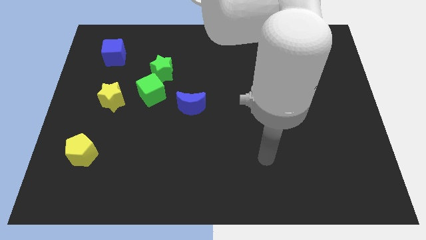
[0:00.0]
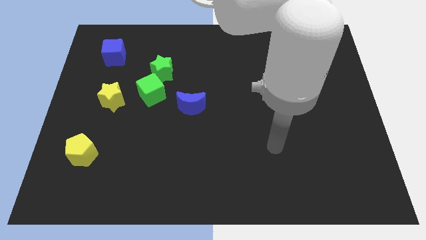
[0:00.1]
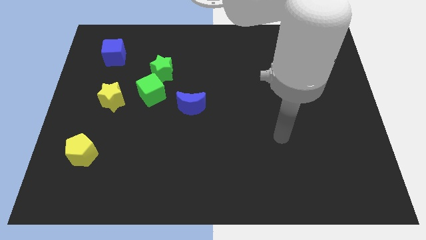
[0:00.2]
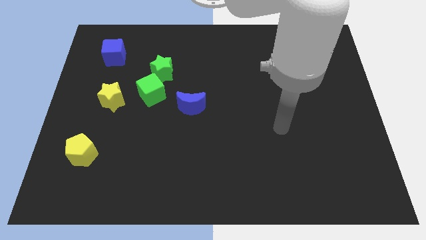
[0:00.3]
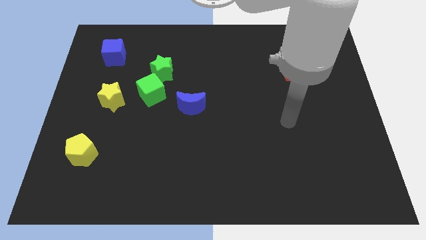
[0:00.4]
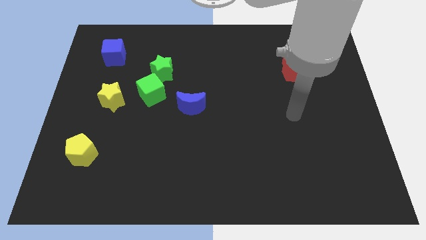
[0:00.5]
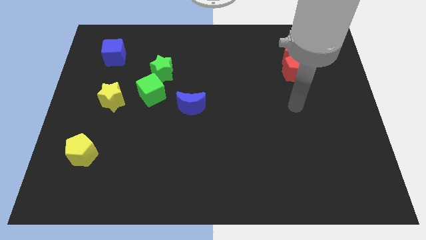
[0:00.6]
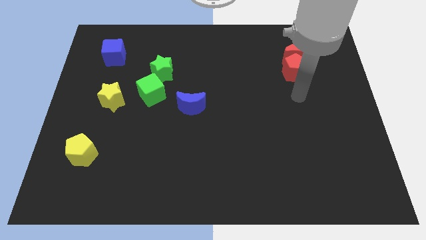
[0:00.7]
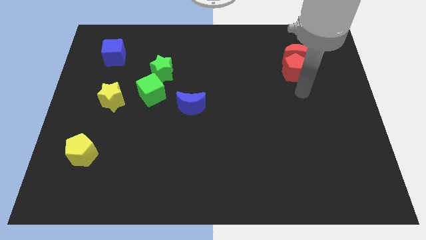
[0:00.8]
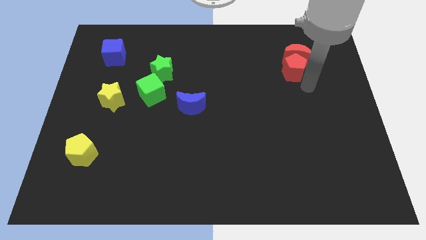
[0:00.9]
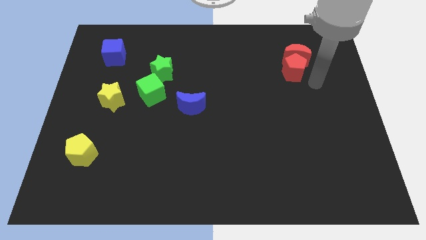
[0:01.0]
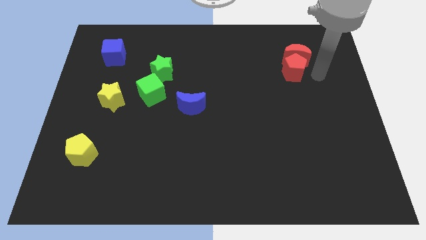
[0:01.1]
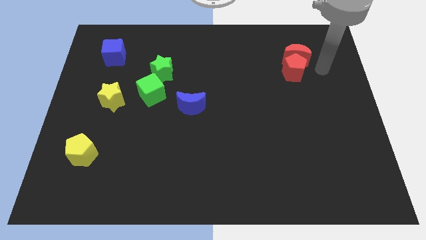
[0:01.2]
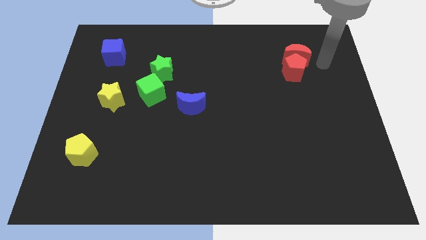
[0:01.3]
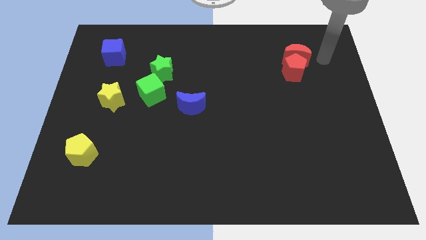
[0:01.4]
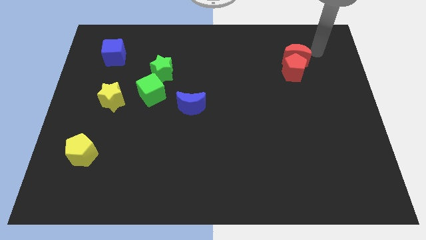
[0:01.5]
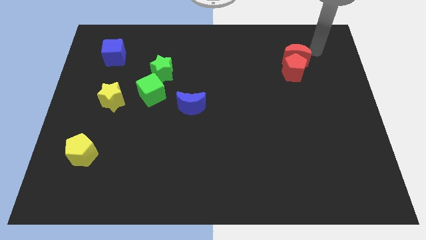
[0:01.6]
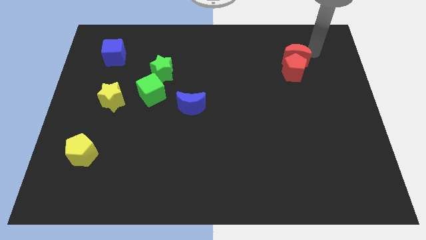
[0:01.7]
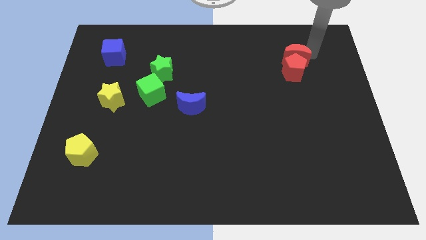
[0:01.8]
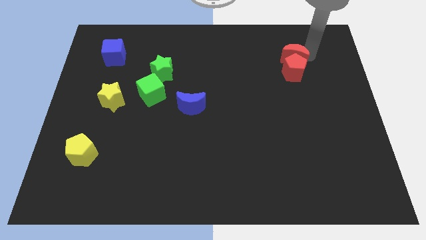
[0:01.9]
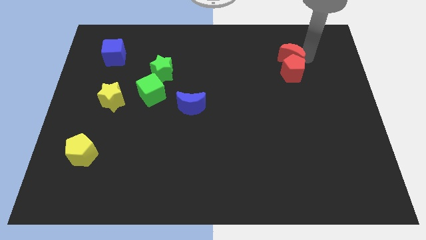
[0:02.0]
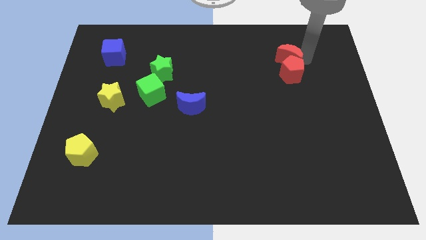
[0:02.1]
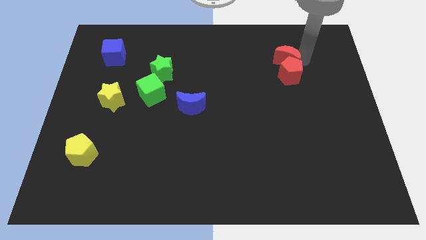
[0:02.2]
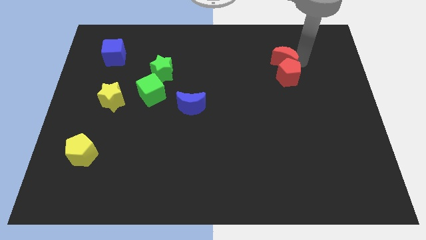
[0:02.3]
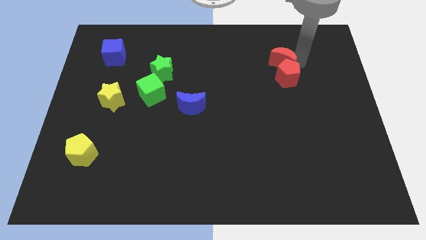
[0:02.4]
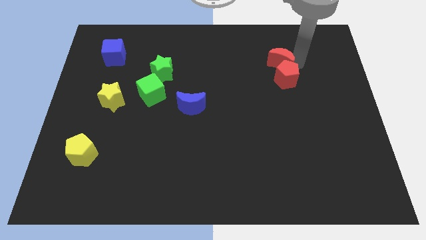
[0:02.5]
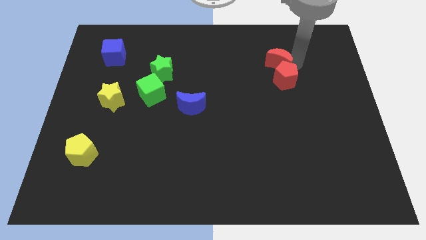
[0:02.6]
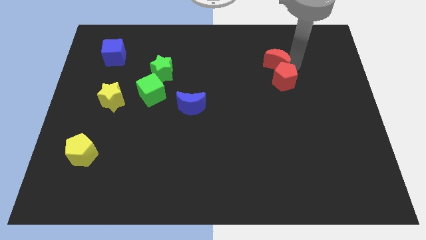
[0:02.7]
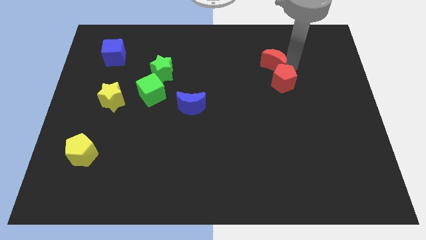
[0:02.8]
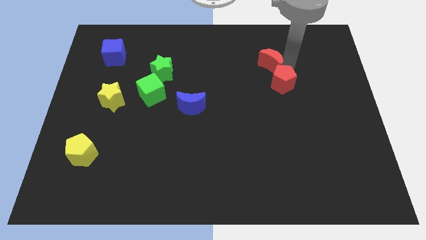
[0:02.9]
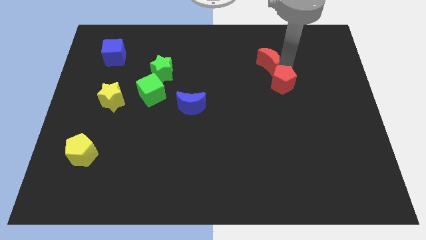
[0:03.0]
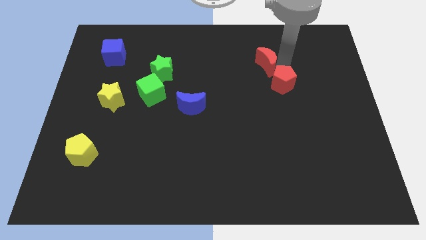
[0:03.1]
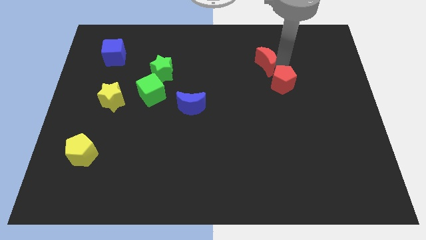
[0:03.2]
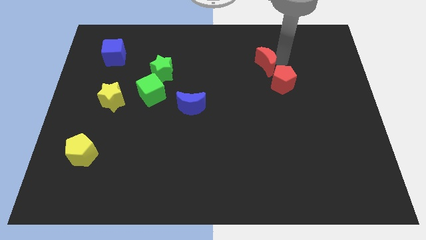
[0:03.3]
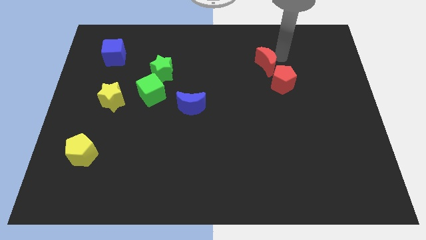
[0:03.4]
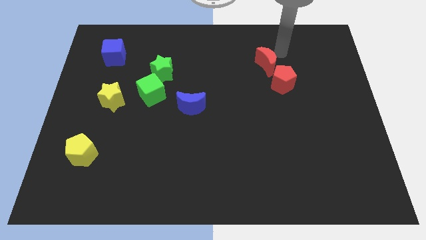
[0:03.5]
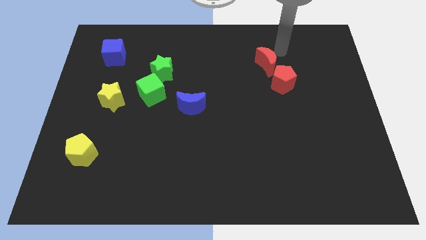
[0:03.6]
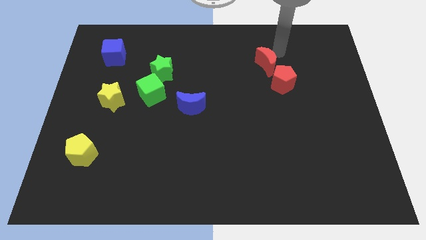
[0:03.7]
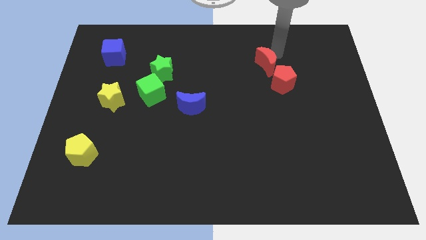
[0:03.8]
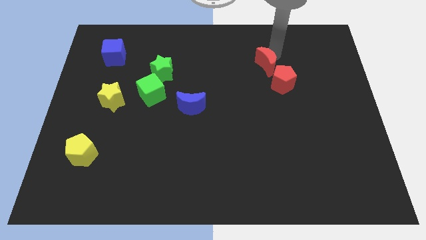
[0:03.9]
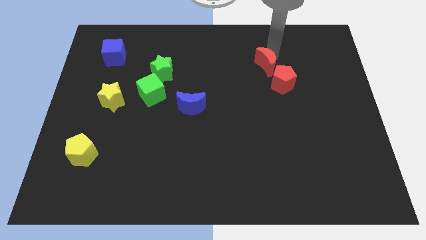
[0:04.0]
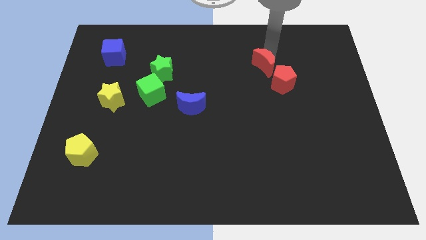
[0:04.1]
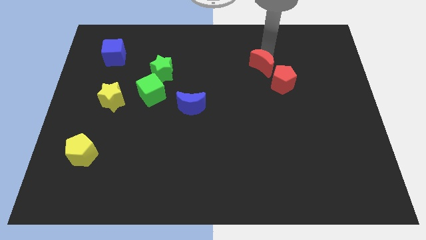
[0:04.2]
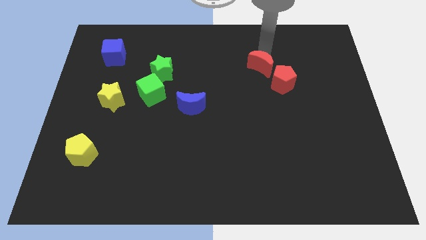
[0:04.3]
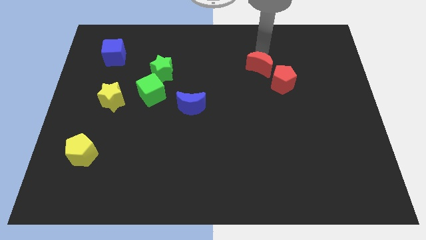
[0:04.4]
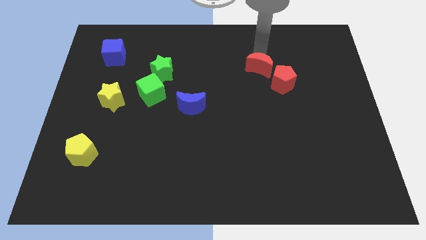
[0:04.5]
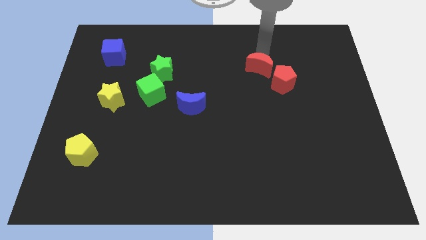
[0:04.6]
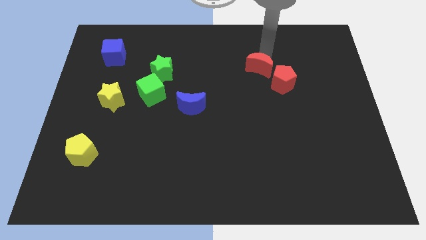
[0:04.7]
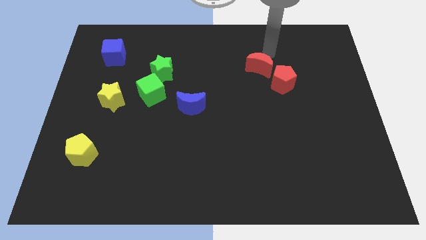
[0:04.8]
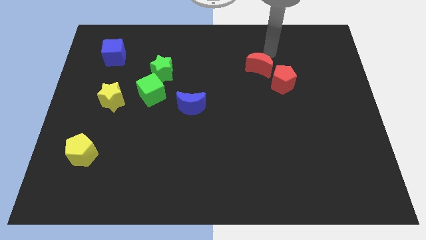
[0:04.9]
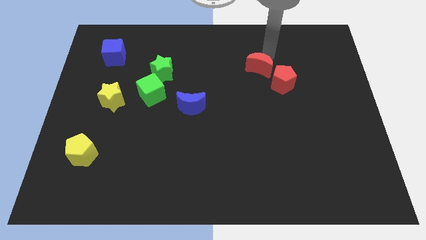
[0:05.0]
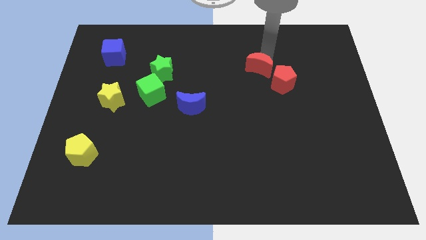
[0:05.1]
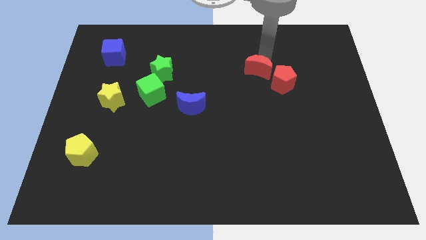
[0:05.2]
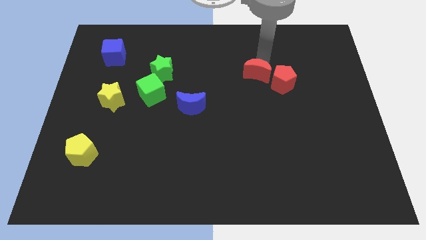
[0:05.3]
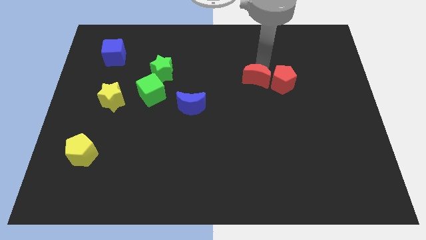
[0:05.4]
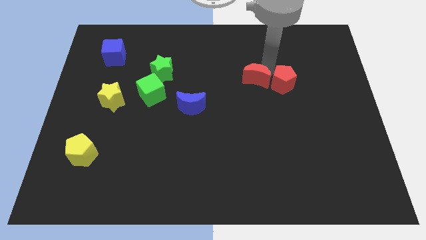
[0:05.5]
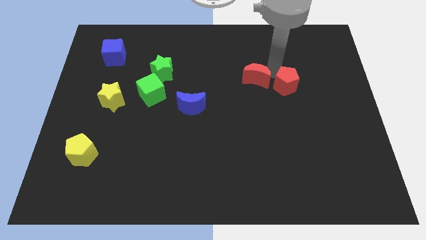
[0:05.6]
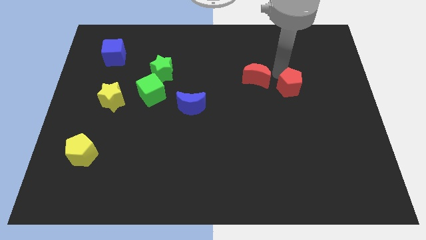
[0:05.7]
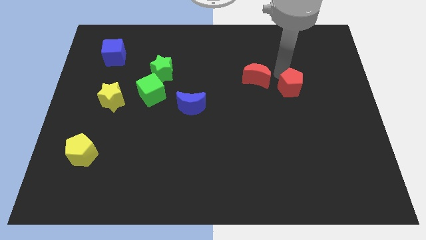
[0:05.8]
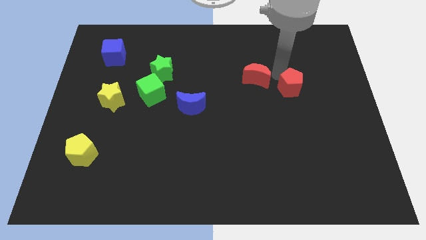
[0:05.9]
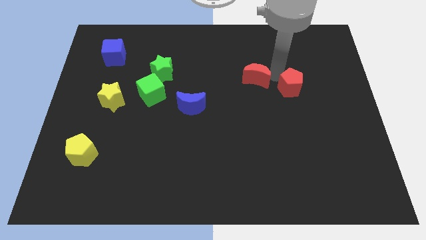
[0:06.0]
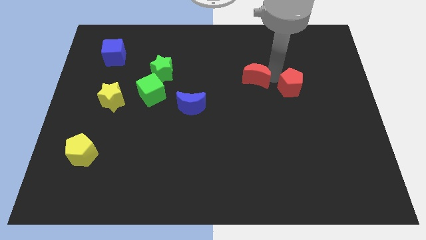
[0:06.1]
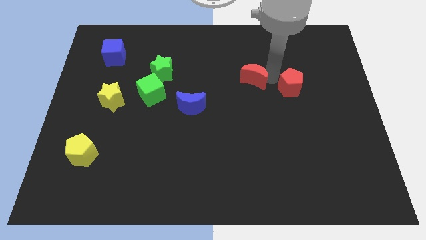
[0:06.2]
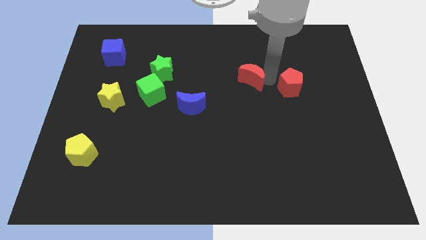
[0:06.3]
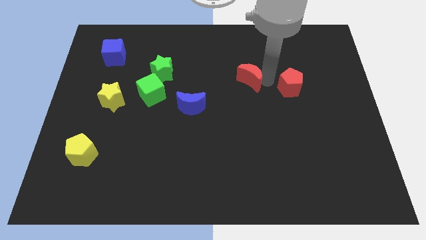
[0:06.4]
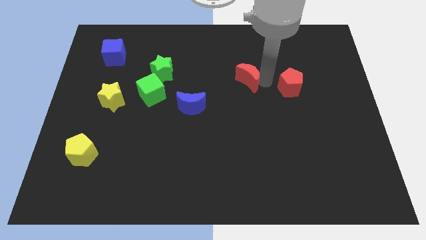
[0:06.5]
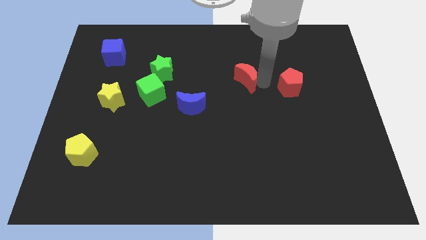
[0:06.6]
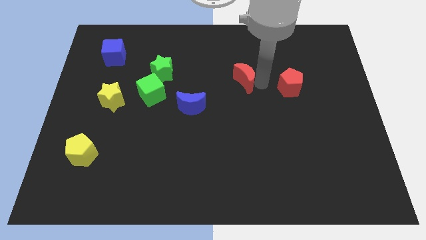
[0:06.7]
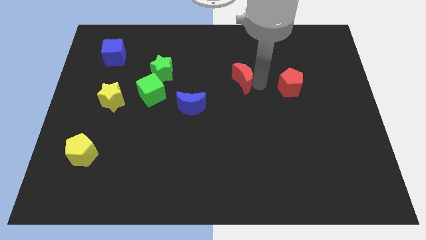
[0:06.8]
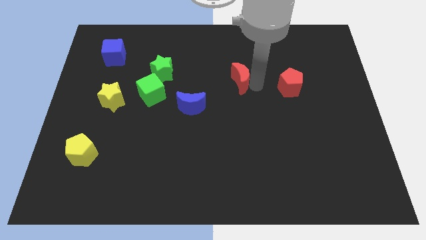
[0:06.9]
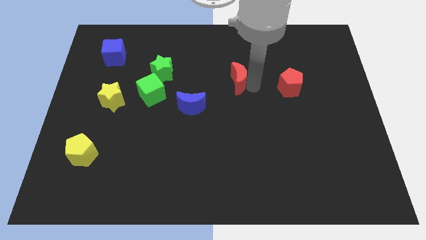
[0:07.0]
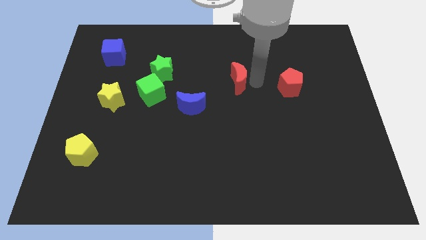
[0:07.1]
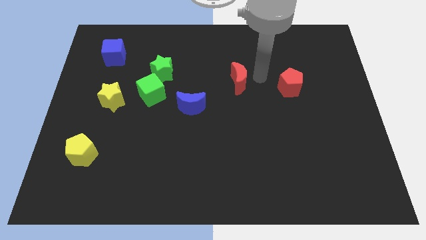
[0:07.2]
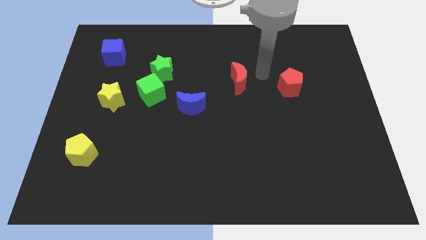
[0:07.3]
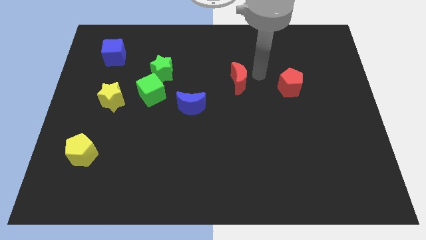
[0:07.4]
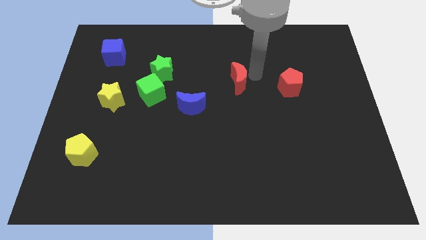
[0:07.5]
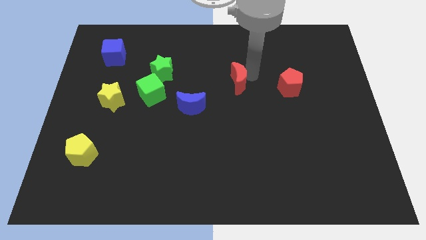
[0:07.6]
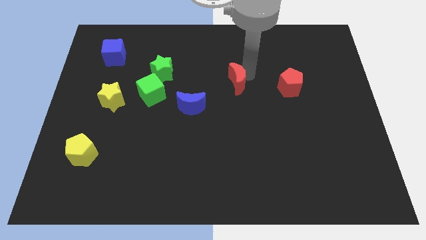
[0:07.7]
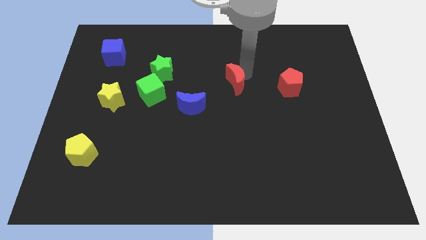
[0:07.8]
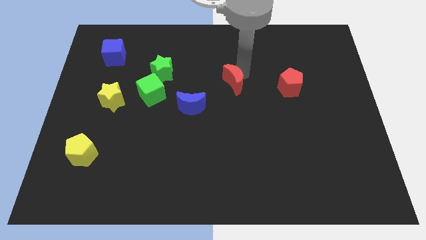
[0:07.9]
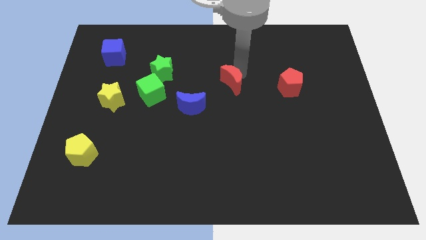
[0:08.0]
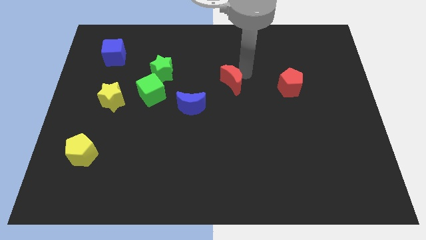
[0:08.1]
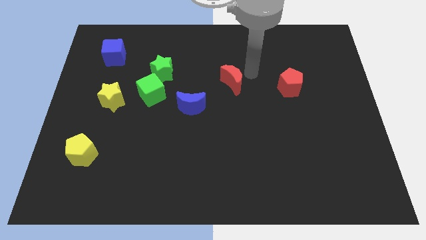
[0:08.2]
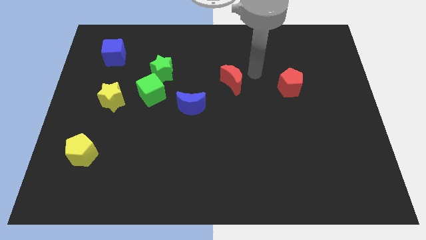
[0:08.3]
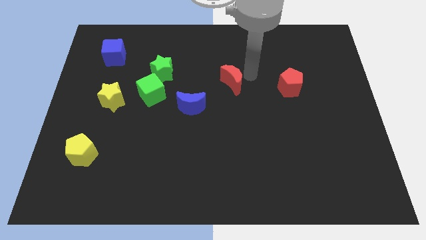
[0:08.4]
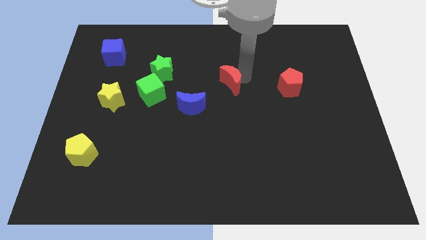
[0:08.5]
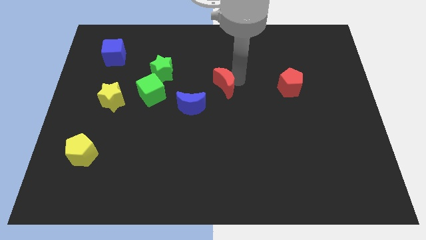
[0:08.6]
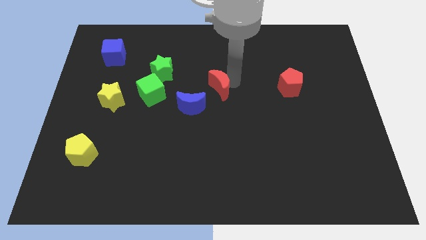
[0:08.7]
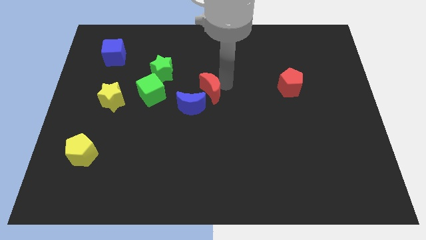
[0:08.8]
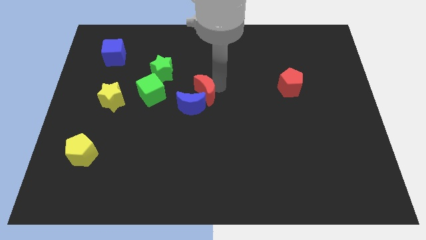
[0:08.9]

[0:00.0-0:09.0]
move the red moon close to the blue moon
